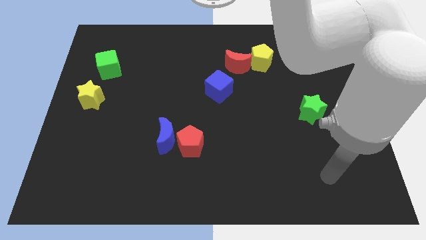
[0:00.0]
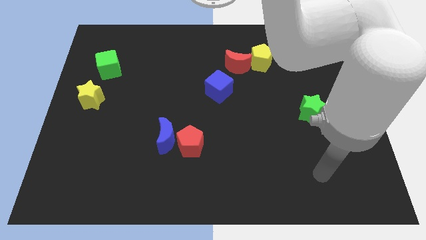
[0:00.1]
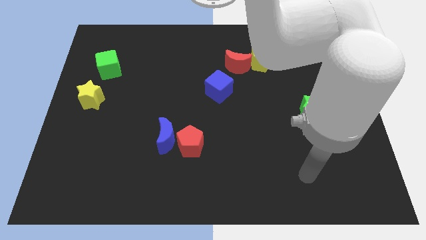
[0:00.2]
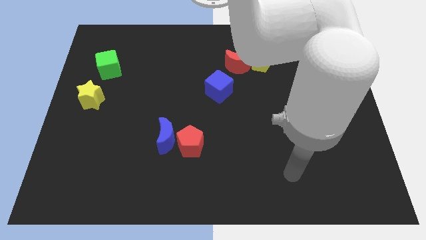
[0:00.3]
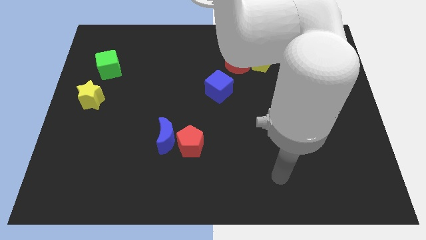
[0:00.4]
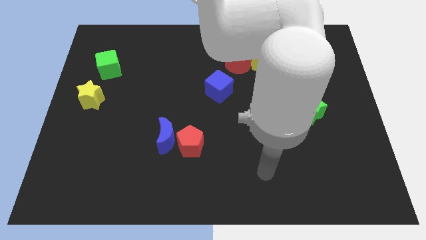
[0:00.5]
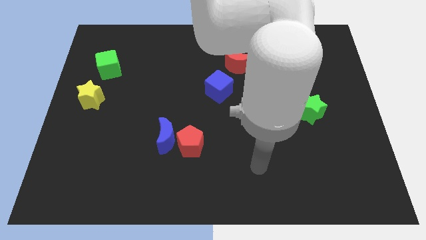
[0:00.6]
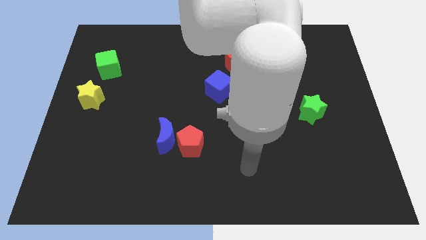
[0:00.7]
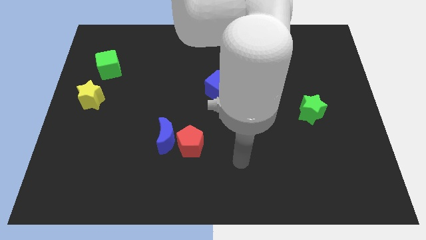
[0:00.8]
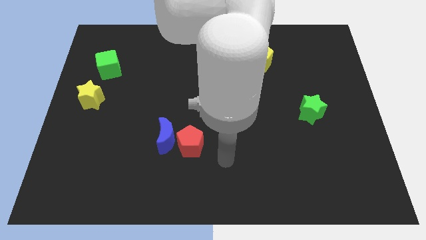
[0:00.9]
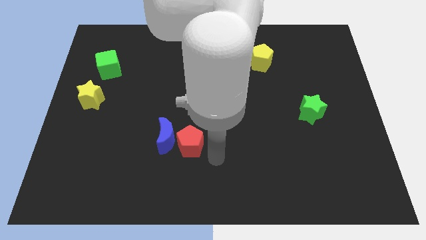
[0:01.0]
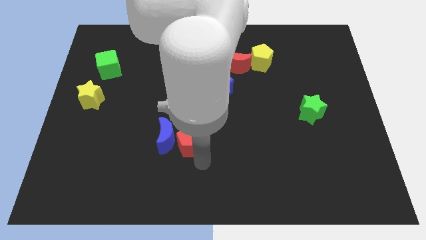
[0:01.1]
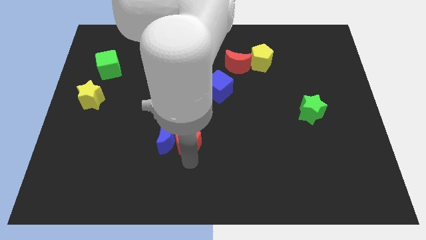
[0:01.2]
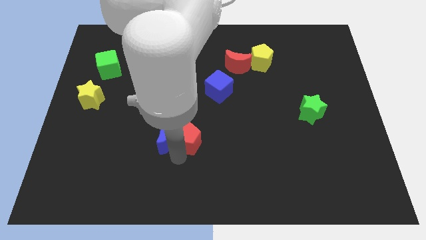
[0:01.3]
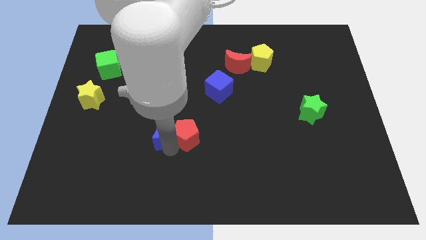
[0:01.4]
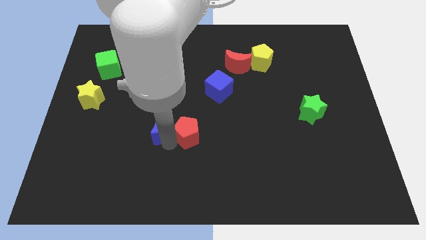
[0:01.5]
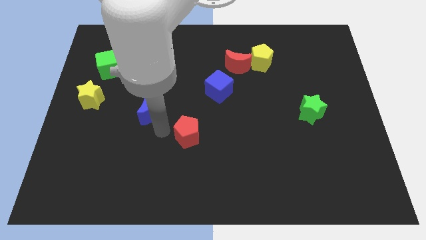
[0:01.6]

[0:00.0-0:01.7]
pull the red pentagon apart from the blue moon

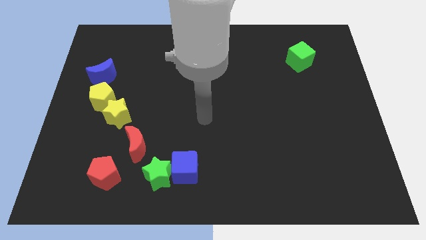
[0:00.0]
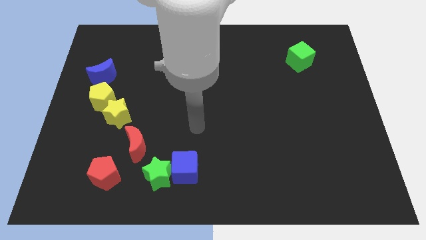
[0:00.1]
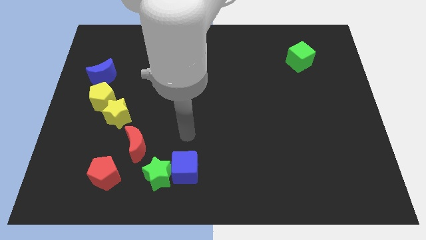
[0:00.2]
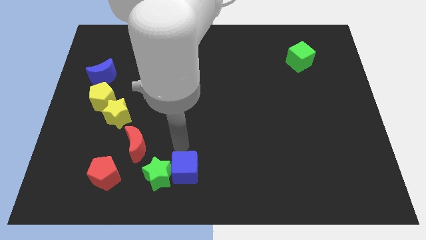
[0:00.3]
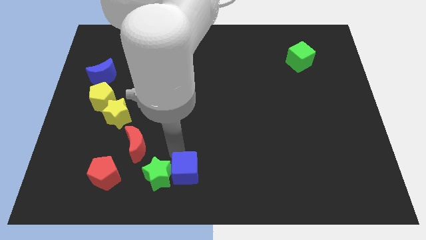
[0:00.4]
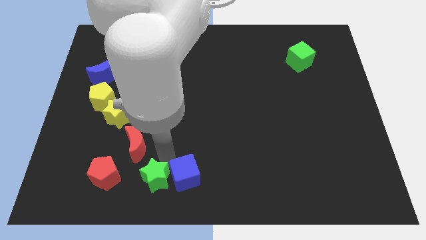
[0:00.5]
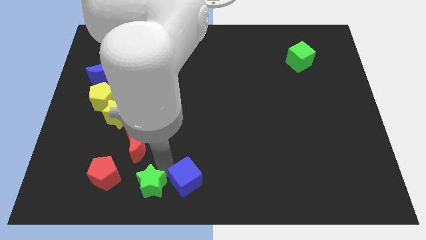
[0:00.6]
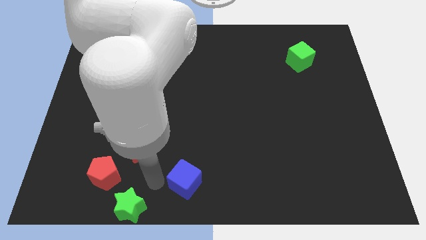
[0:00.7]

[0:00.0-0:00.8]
separate the blue cube from the green star

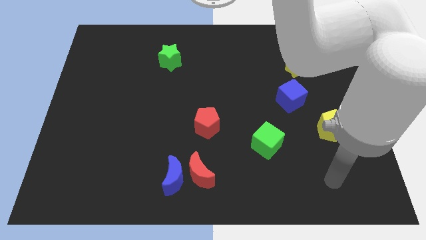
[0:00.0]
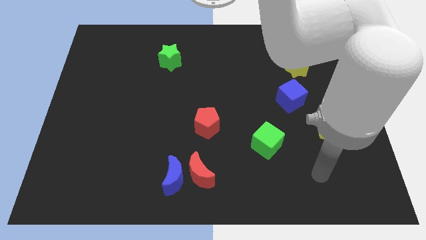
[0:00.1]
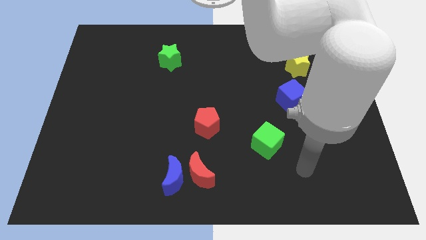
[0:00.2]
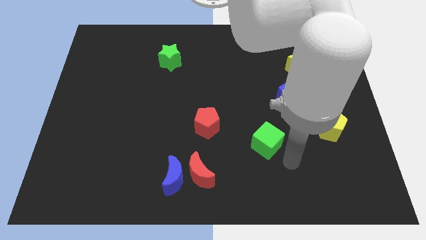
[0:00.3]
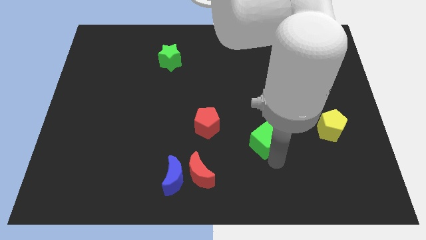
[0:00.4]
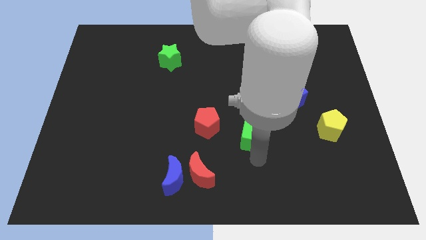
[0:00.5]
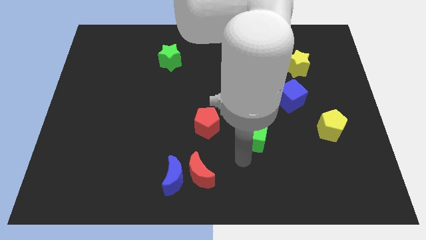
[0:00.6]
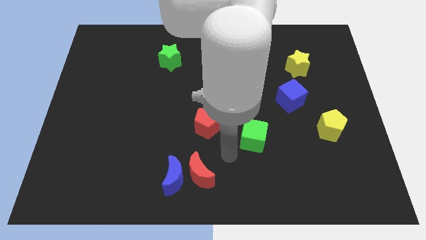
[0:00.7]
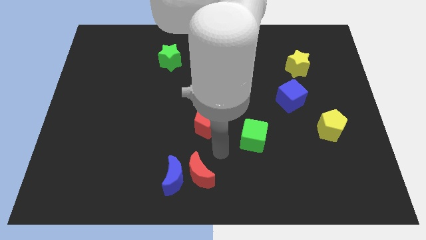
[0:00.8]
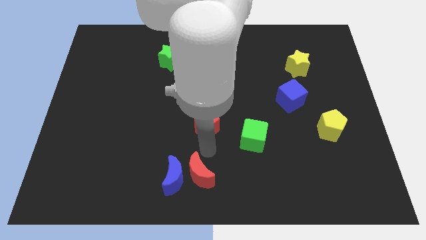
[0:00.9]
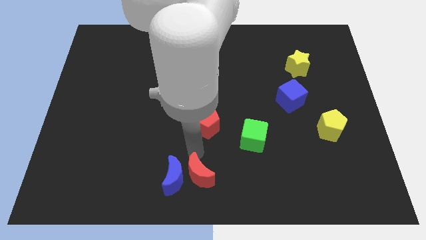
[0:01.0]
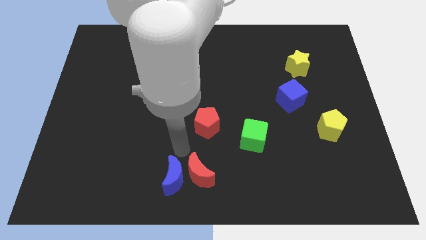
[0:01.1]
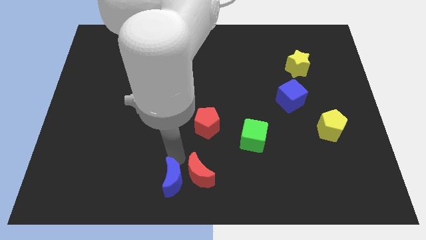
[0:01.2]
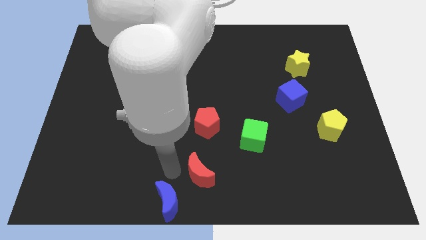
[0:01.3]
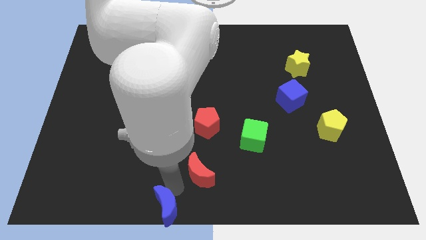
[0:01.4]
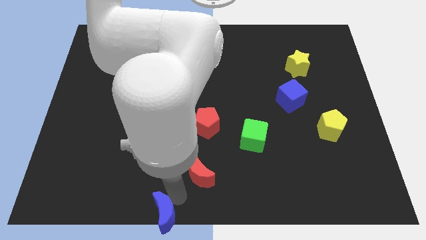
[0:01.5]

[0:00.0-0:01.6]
move the red moon away from the blue moon

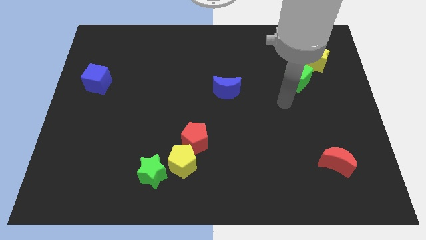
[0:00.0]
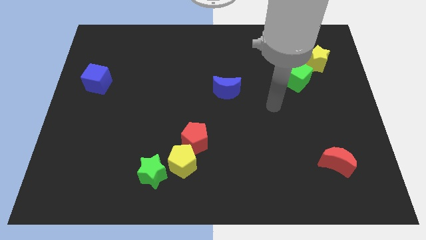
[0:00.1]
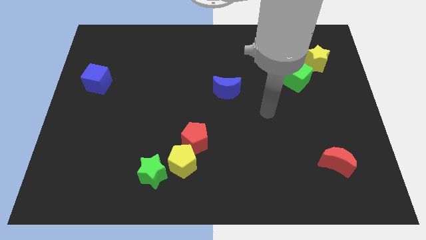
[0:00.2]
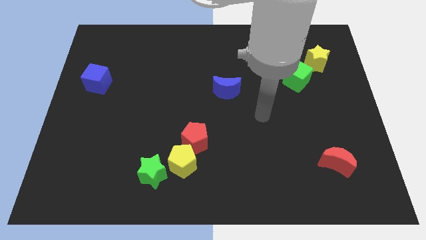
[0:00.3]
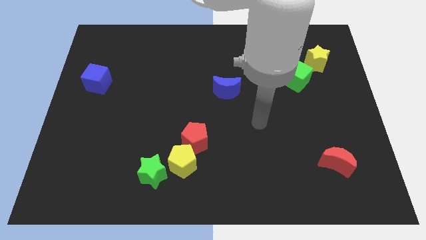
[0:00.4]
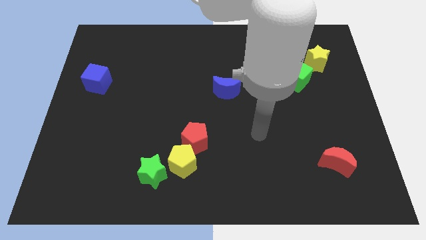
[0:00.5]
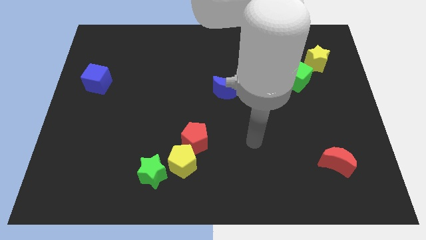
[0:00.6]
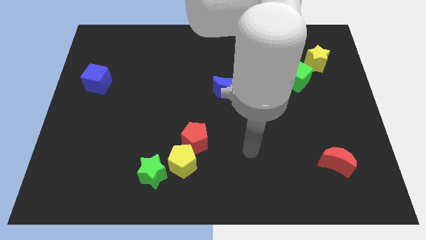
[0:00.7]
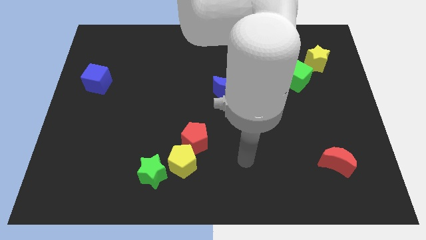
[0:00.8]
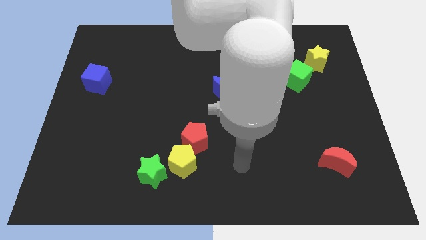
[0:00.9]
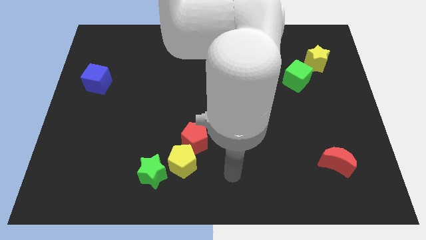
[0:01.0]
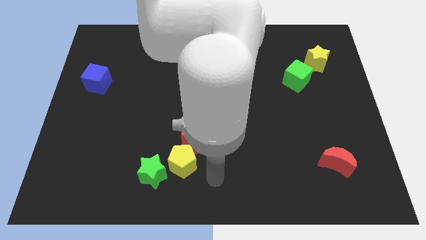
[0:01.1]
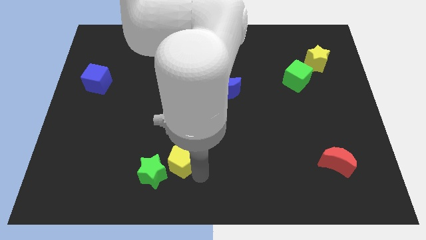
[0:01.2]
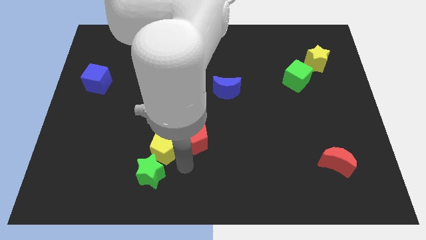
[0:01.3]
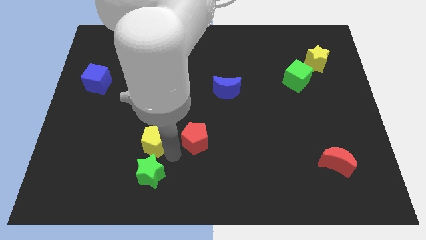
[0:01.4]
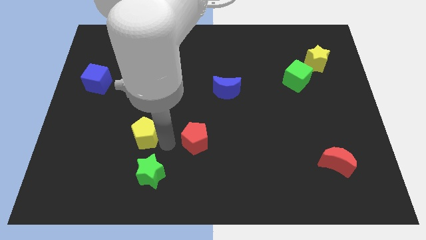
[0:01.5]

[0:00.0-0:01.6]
pull the red pentagon apart from the yellow pentagon

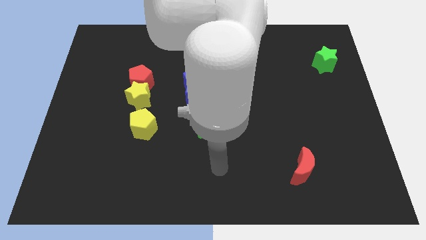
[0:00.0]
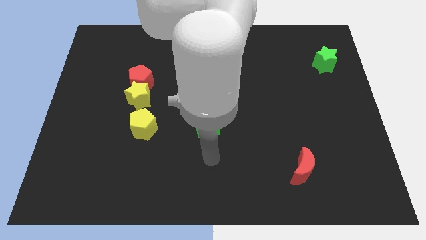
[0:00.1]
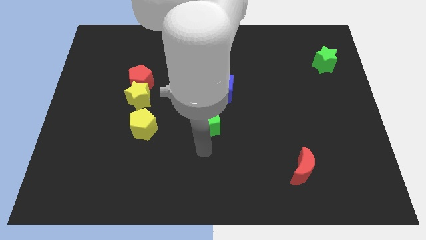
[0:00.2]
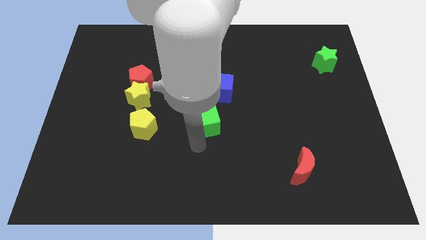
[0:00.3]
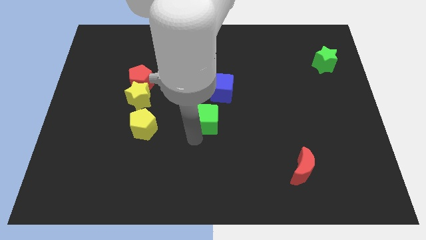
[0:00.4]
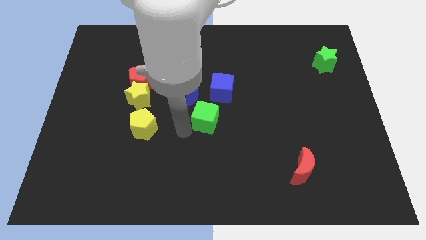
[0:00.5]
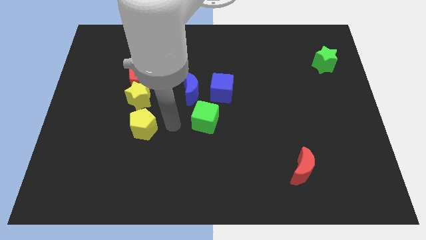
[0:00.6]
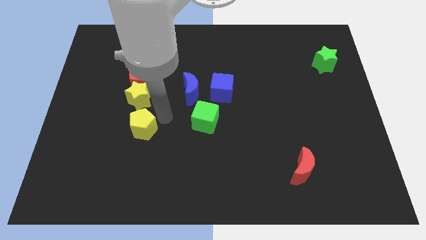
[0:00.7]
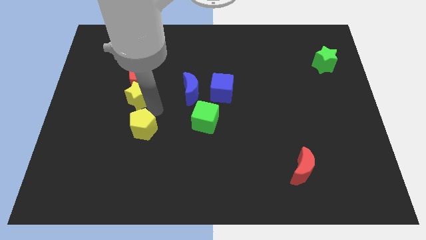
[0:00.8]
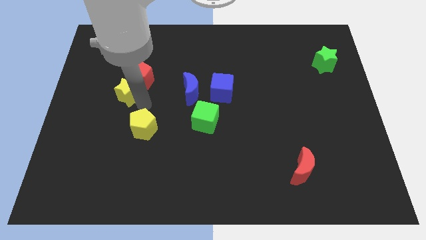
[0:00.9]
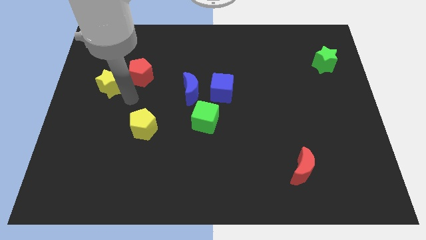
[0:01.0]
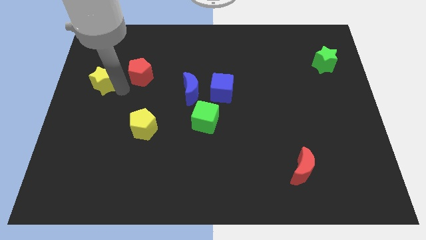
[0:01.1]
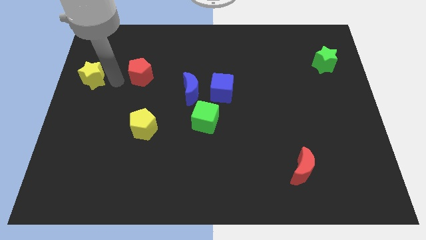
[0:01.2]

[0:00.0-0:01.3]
separate the red pentagon from the yellow star

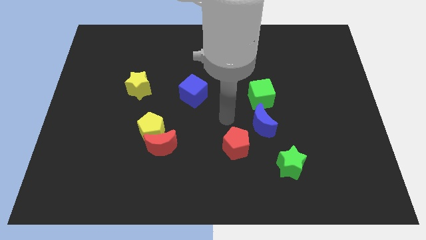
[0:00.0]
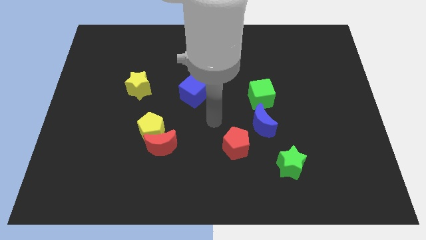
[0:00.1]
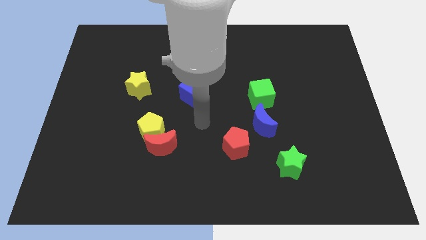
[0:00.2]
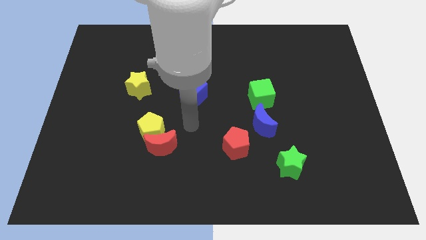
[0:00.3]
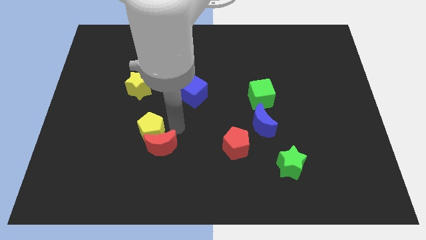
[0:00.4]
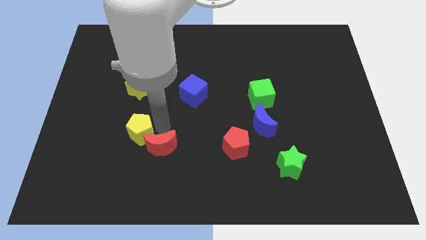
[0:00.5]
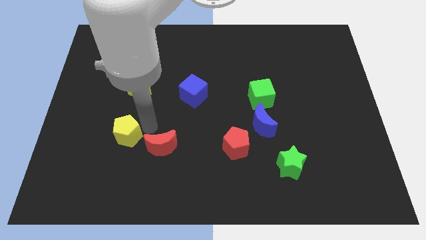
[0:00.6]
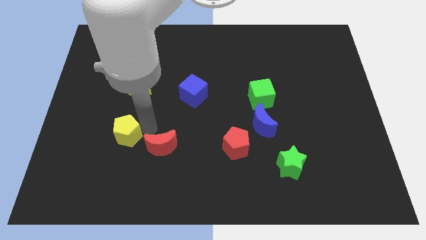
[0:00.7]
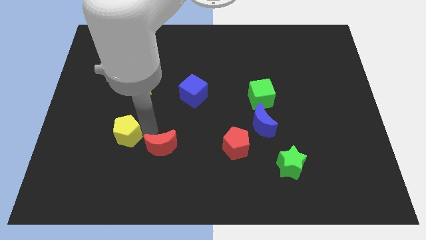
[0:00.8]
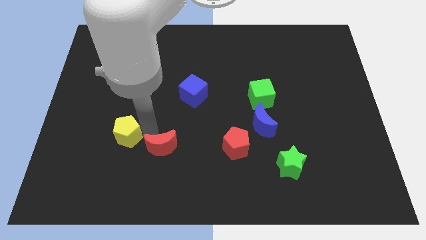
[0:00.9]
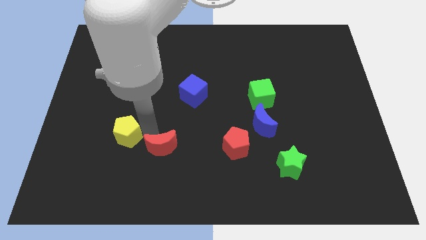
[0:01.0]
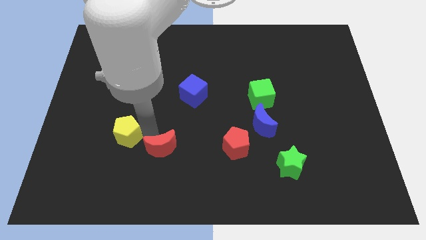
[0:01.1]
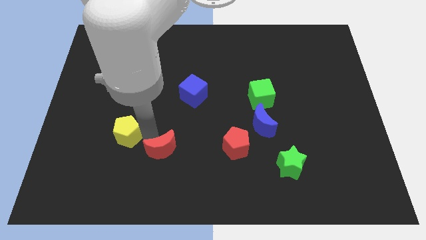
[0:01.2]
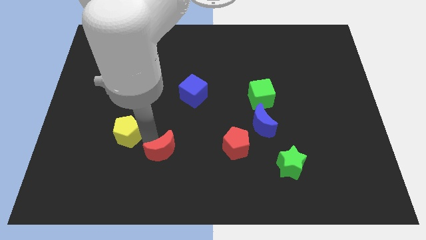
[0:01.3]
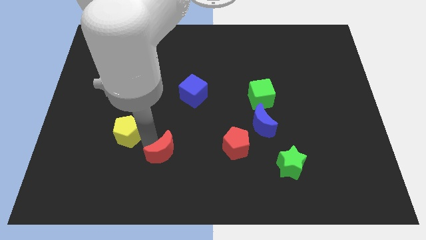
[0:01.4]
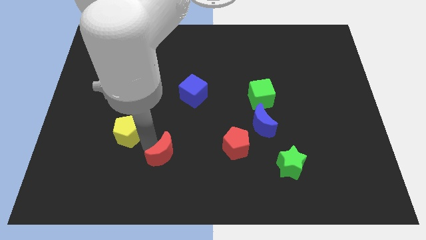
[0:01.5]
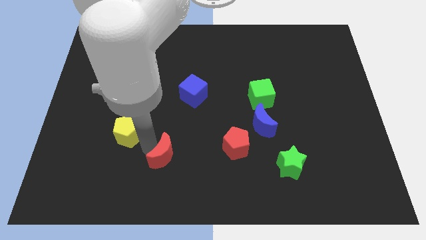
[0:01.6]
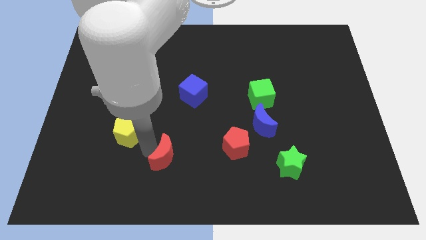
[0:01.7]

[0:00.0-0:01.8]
move the red moon away from the yellow pentagon

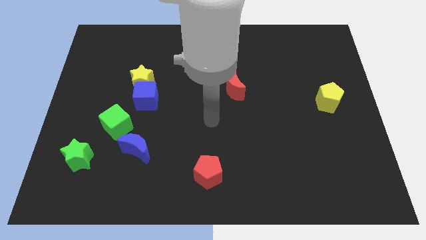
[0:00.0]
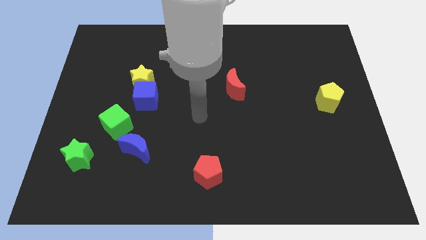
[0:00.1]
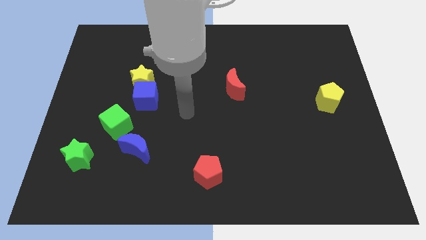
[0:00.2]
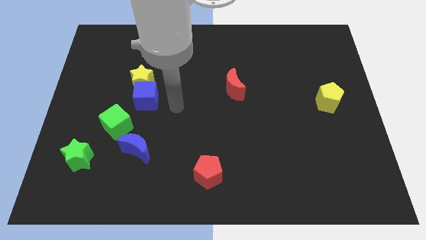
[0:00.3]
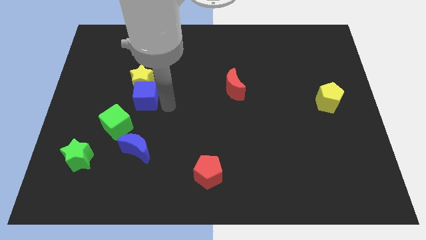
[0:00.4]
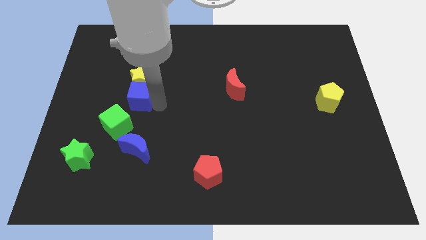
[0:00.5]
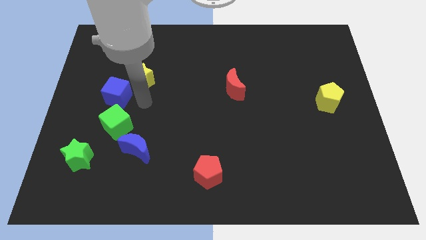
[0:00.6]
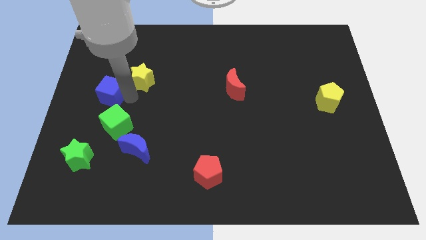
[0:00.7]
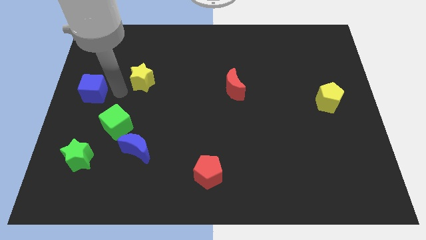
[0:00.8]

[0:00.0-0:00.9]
separate the yellow star from the blue cube
